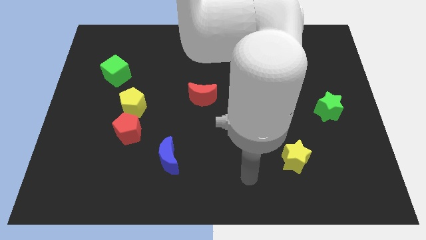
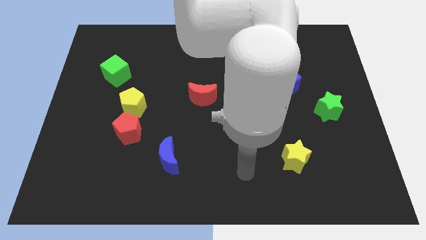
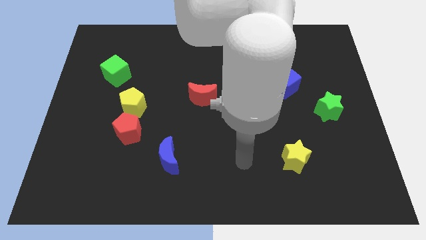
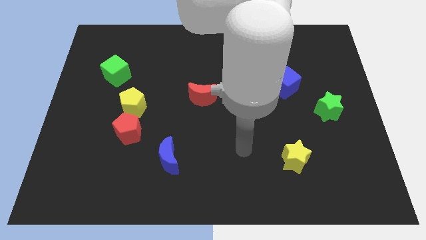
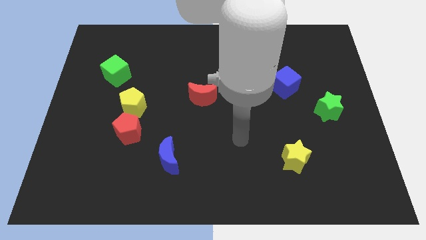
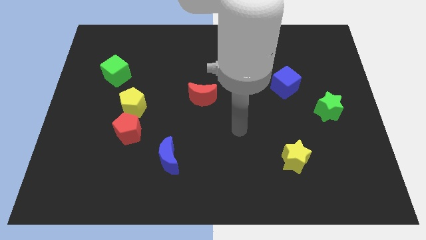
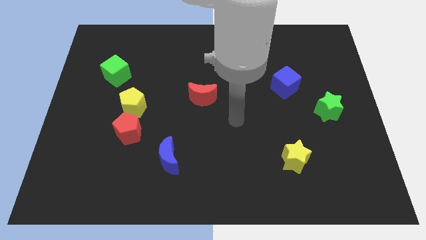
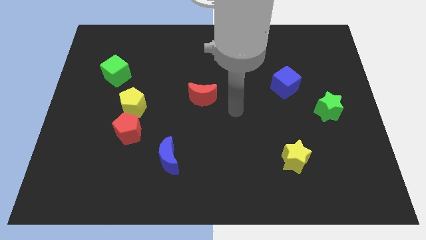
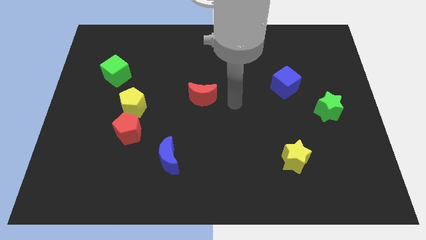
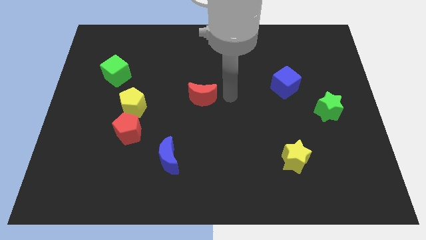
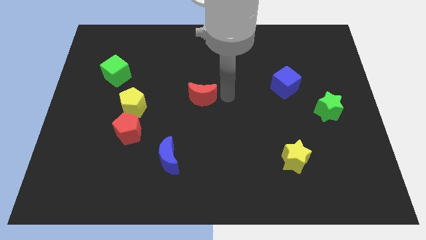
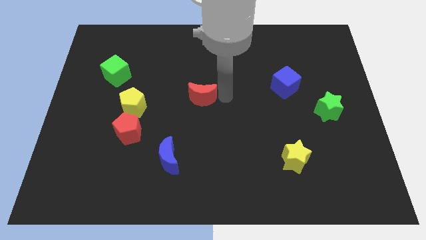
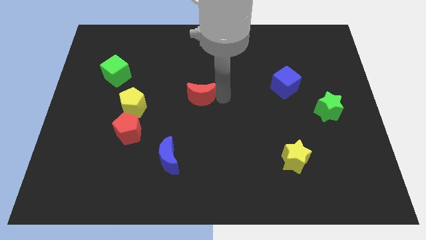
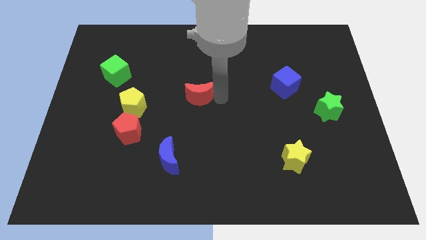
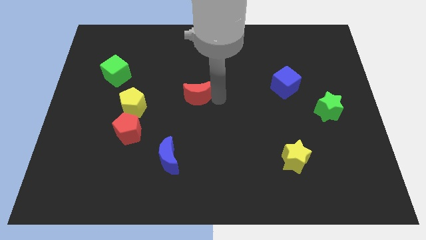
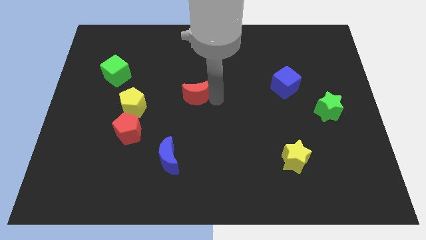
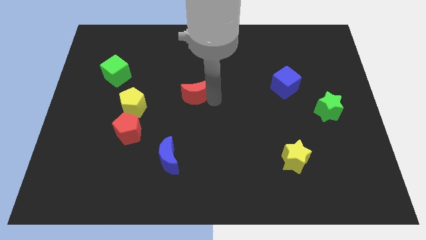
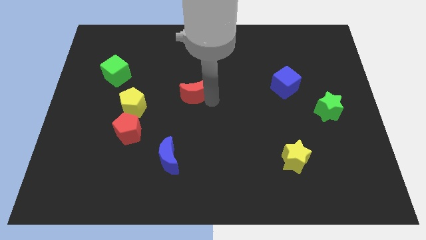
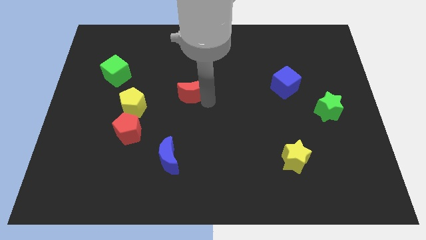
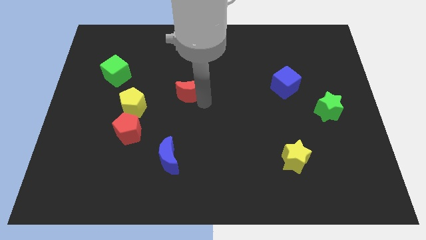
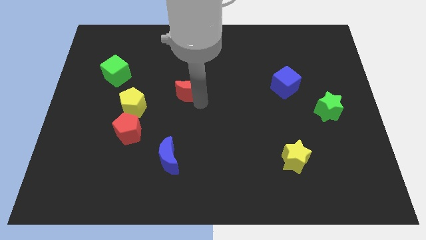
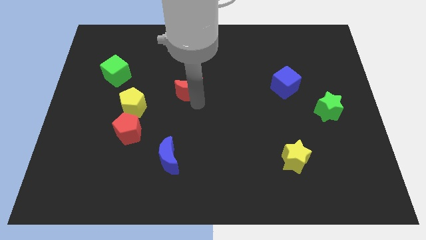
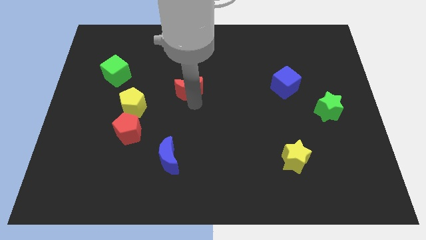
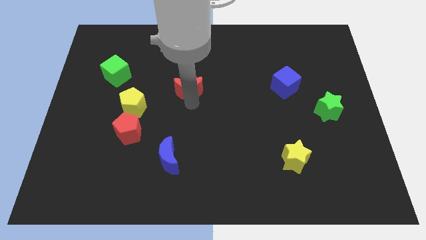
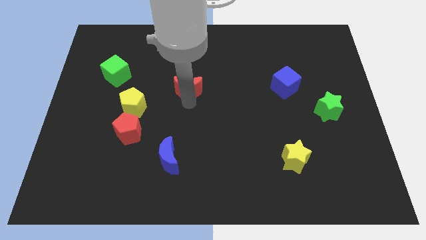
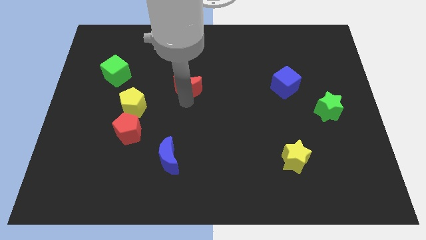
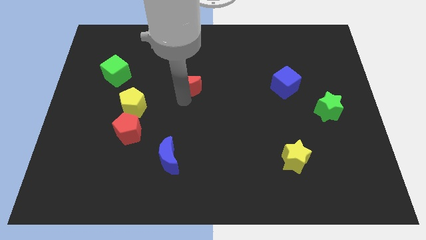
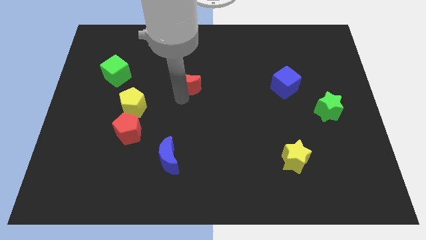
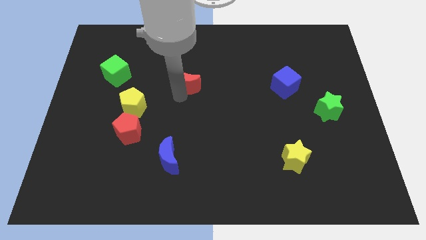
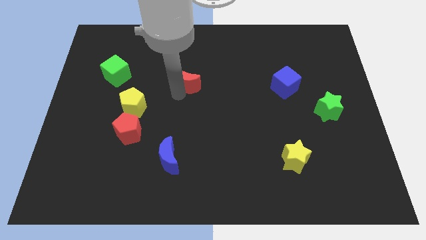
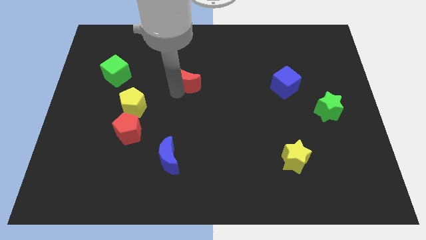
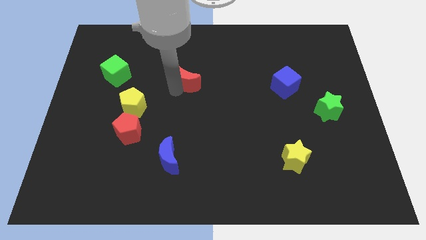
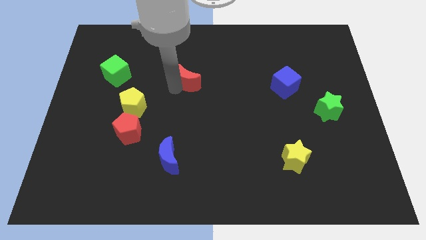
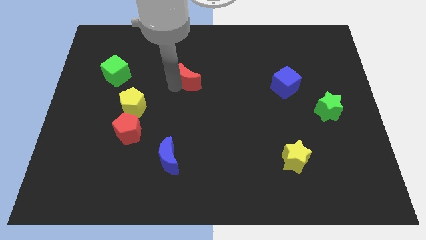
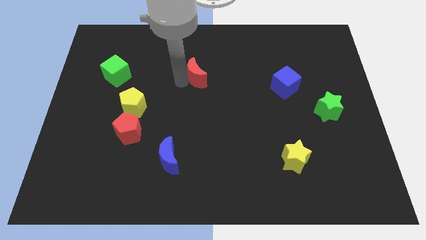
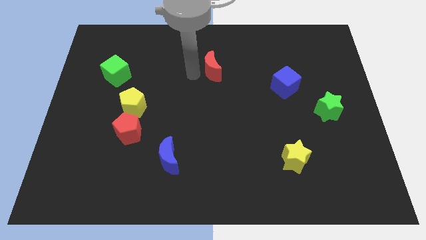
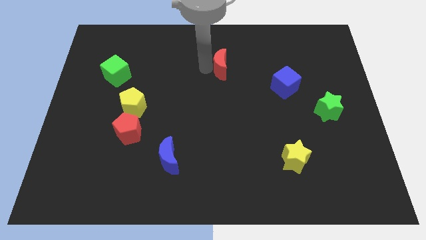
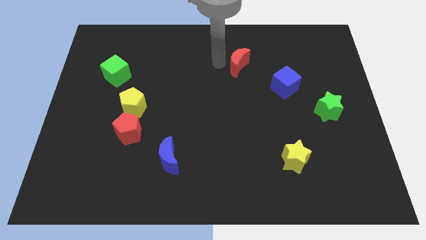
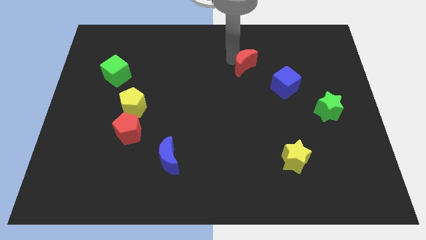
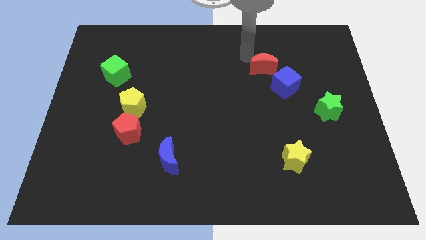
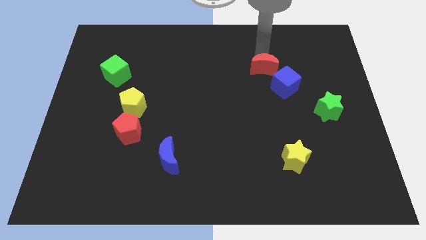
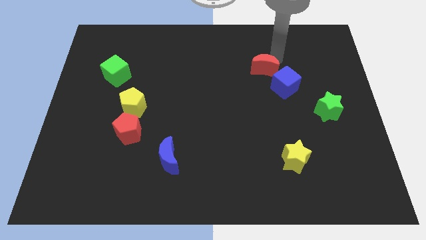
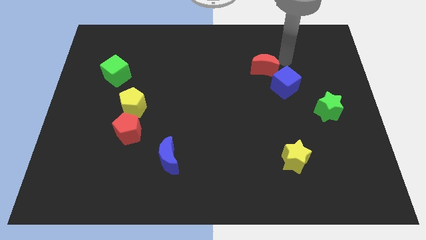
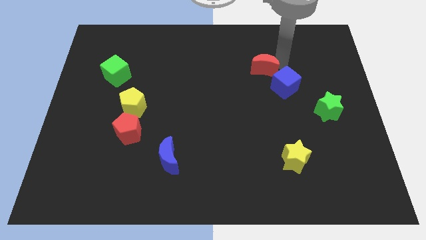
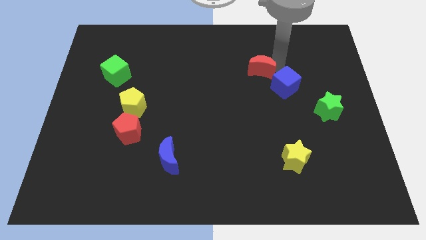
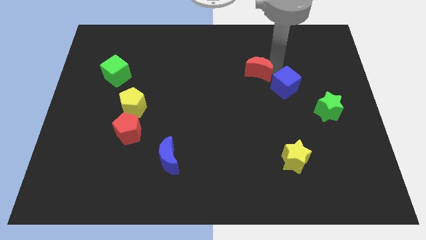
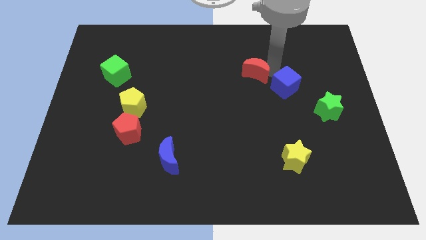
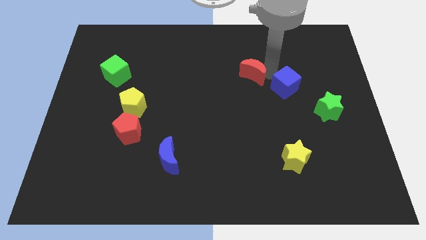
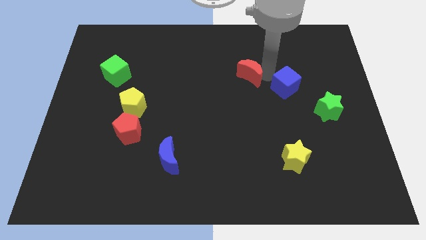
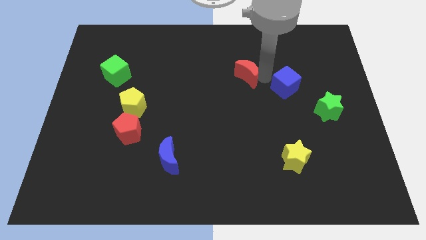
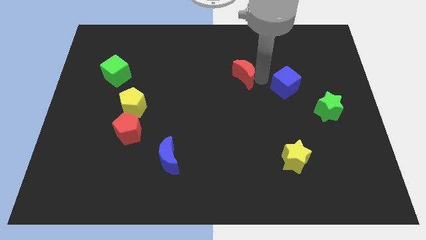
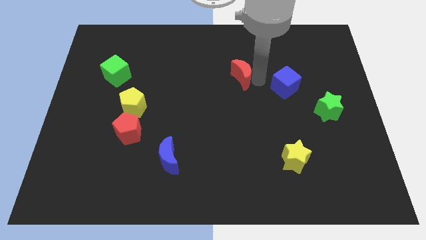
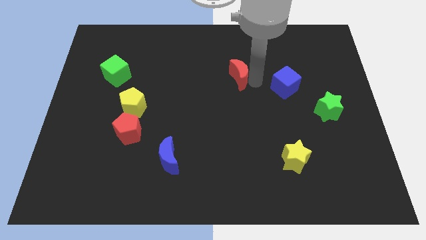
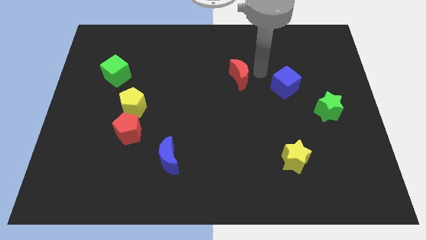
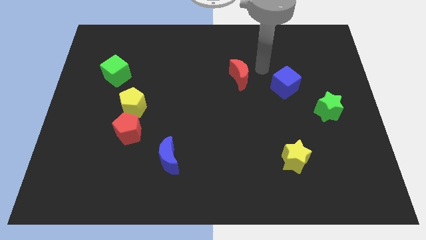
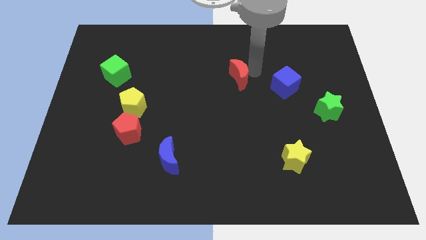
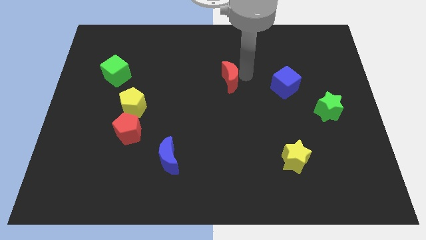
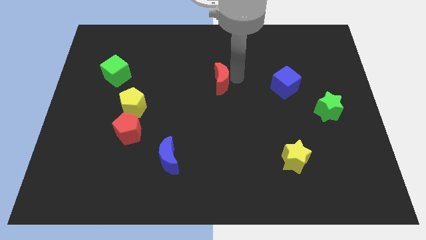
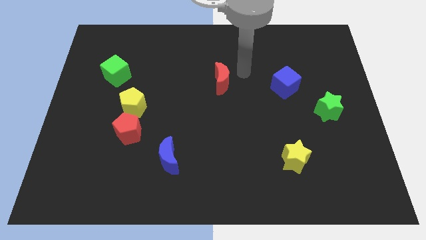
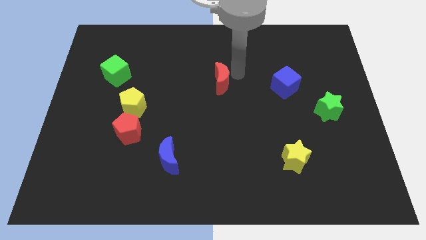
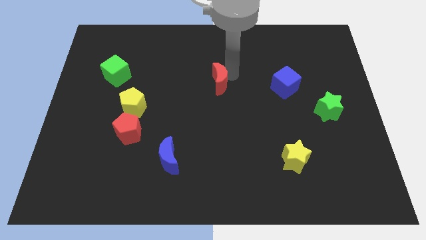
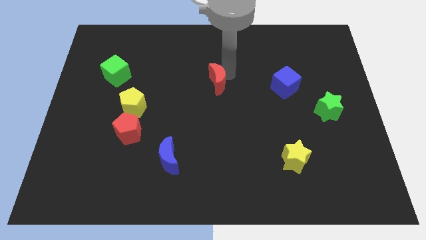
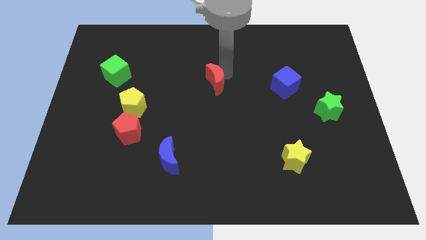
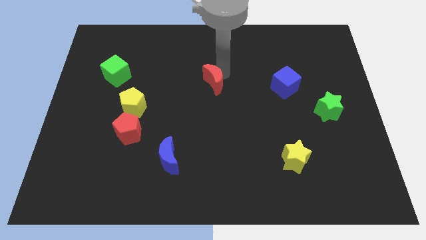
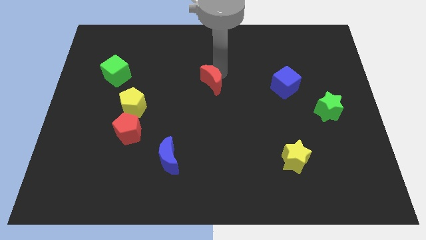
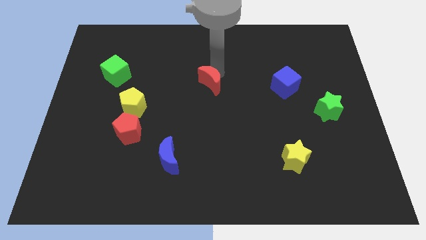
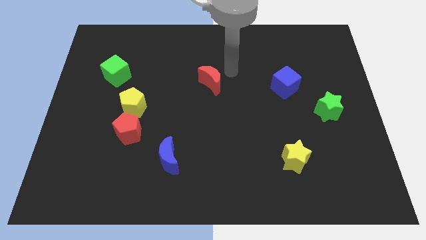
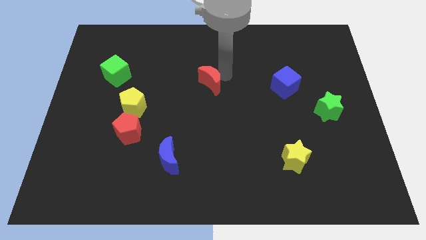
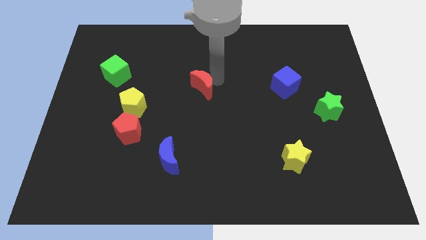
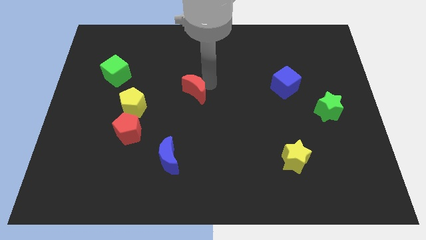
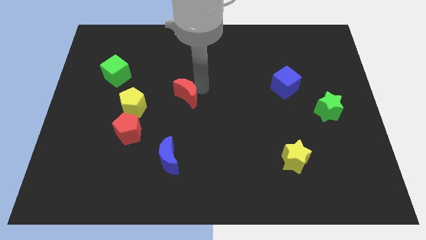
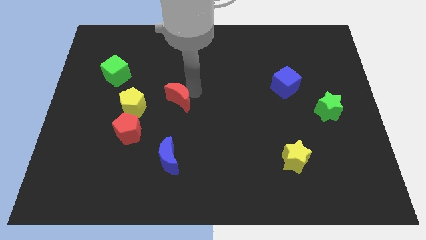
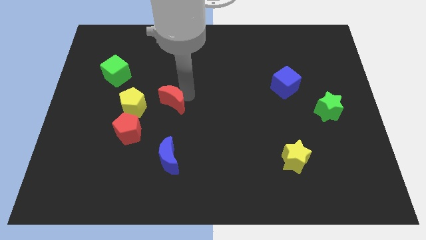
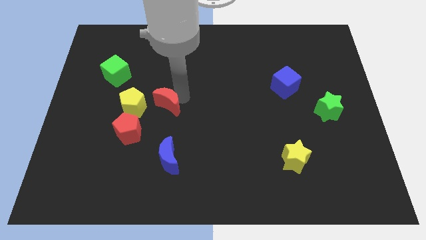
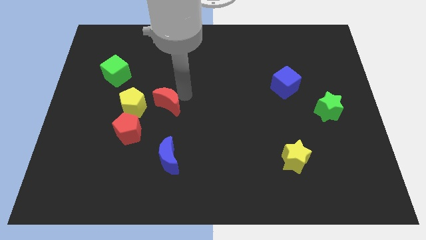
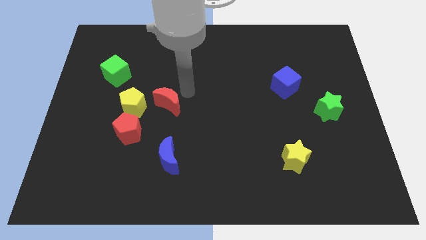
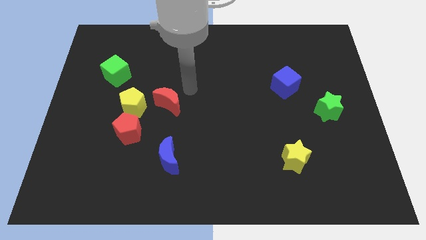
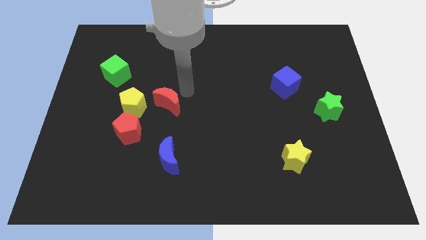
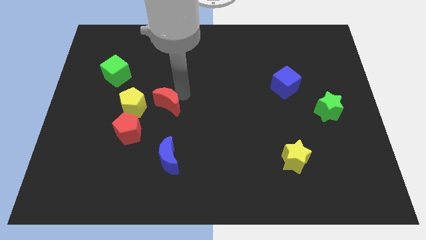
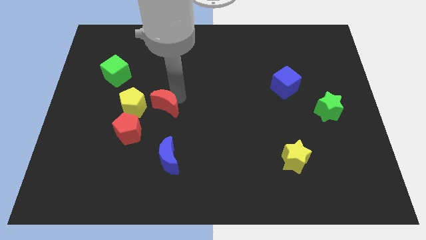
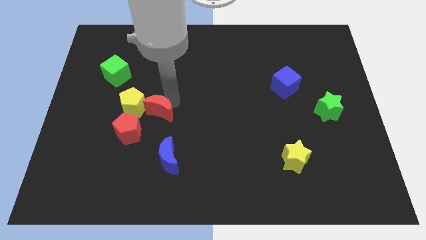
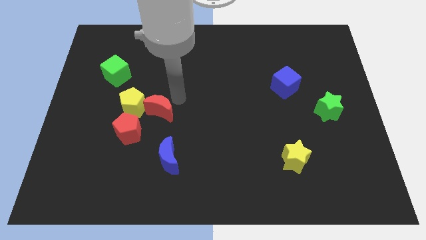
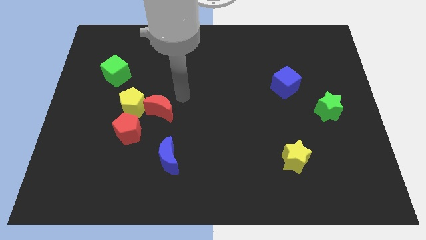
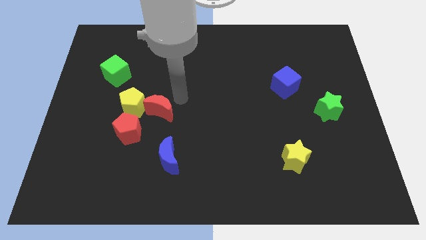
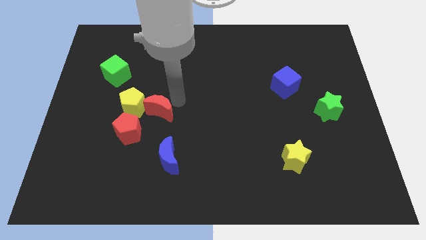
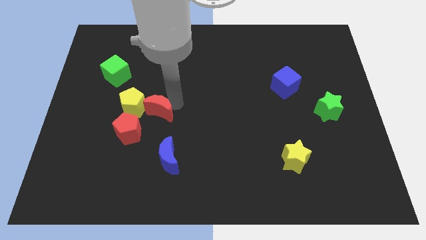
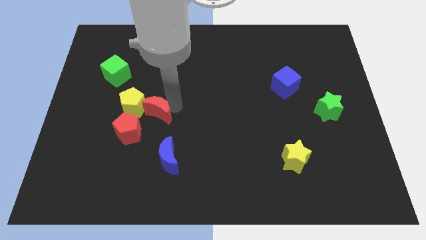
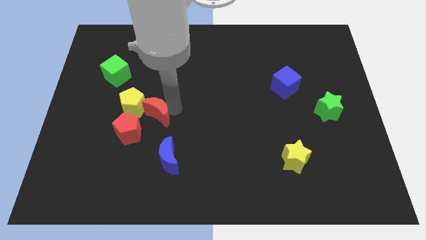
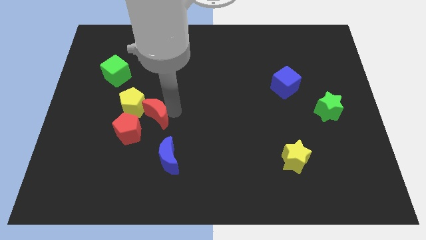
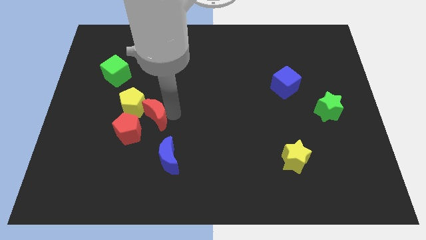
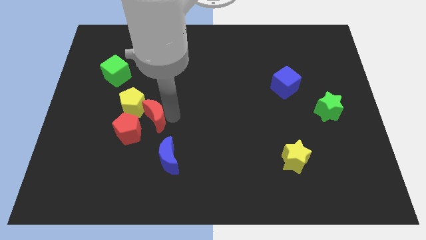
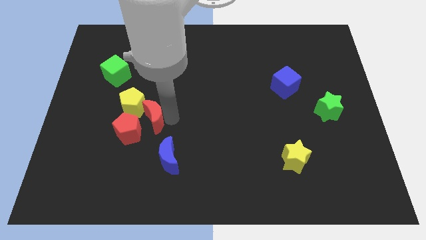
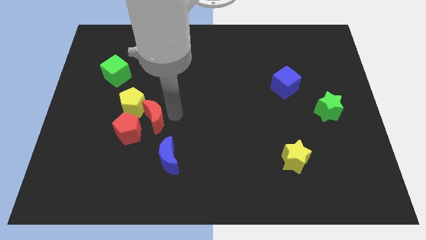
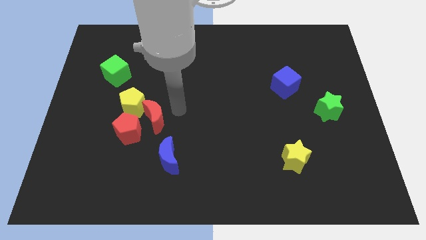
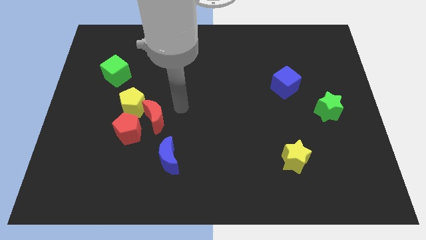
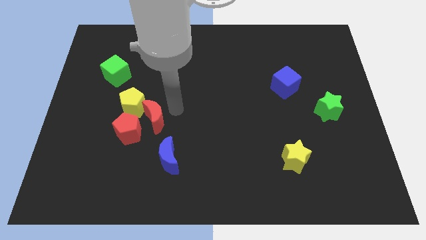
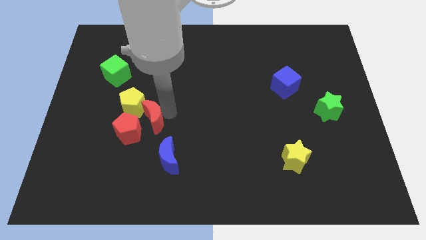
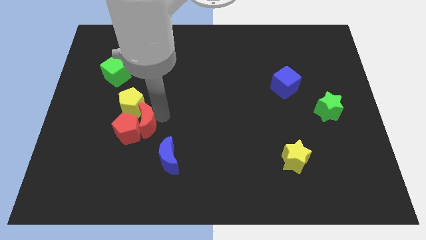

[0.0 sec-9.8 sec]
put the red moon next to the red pentagon
